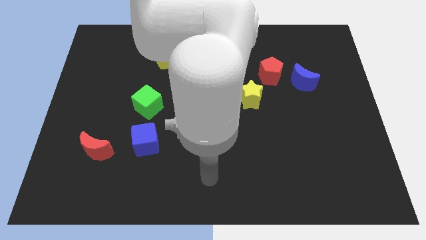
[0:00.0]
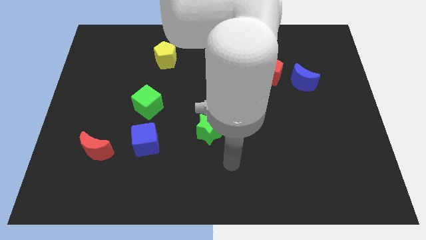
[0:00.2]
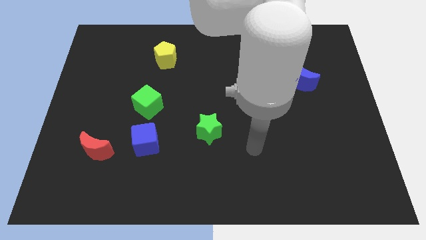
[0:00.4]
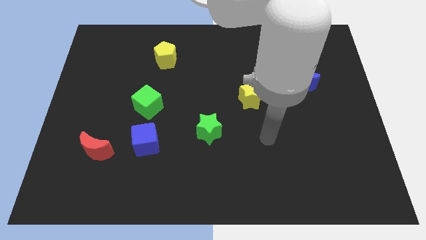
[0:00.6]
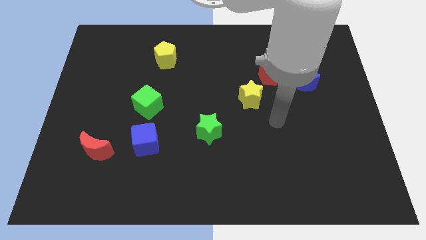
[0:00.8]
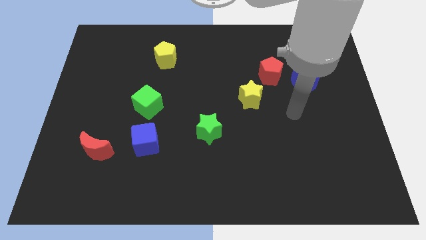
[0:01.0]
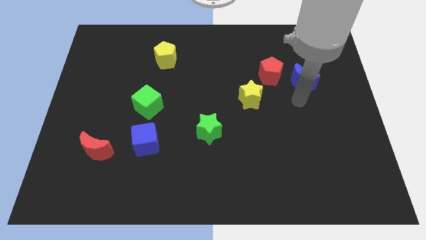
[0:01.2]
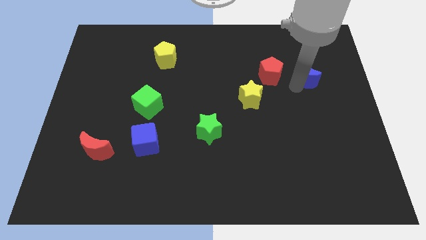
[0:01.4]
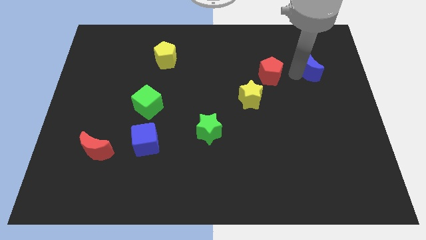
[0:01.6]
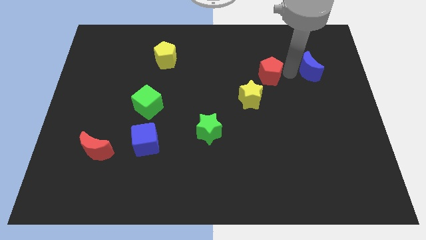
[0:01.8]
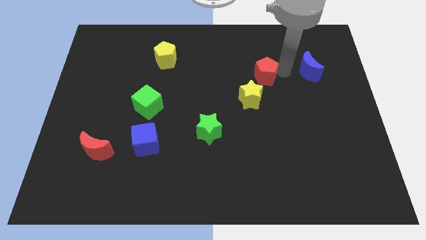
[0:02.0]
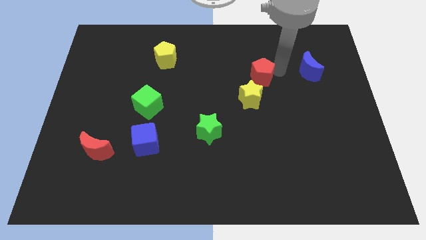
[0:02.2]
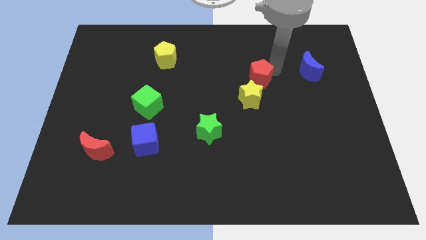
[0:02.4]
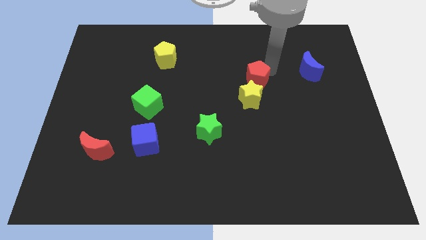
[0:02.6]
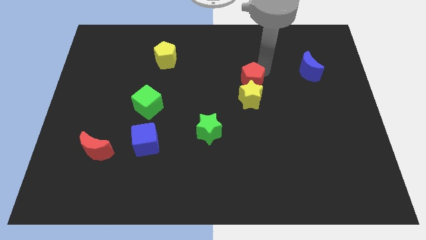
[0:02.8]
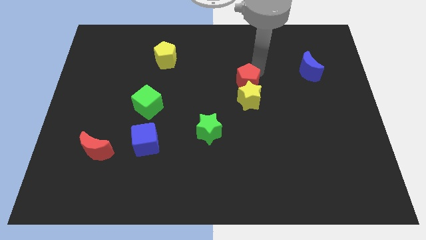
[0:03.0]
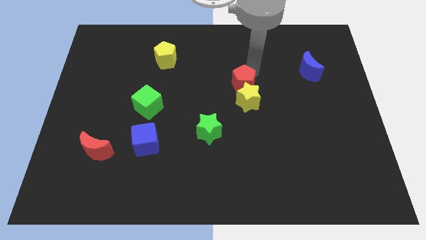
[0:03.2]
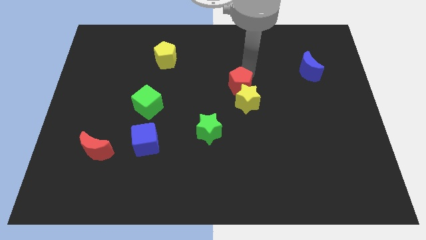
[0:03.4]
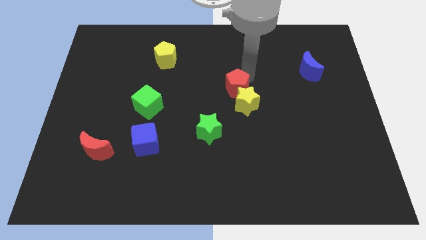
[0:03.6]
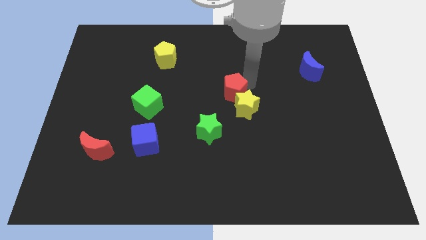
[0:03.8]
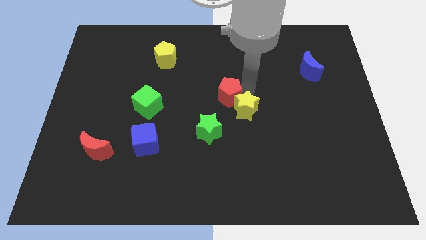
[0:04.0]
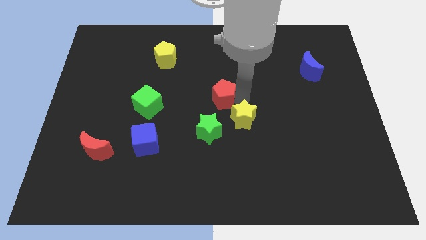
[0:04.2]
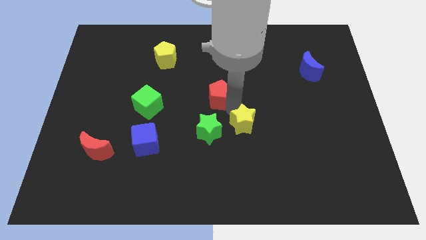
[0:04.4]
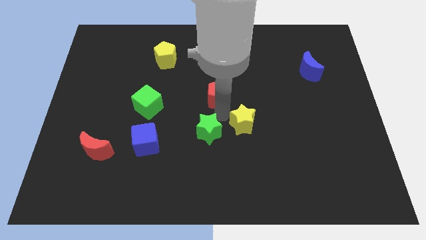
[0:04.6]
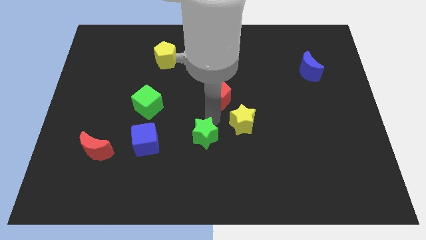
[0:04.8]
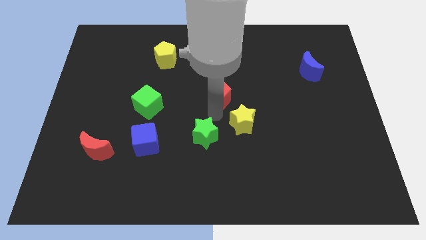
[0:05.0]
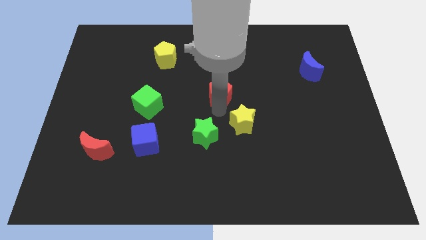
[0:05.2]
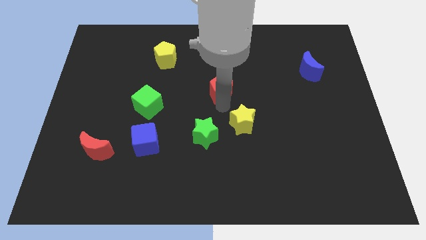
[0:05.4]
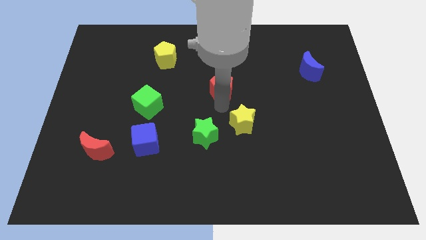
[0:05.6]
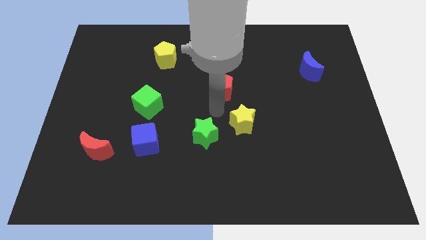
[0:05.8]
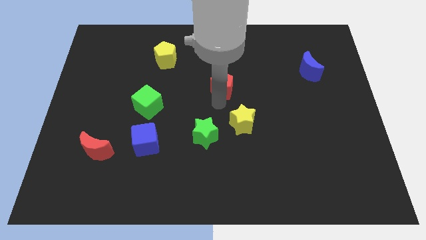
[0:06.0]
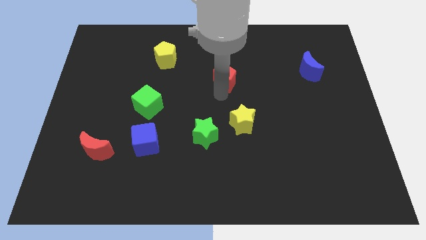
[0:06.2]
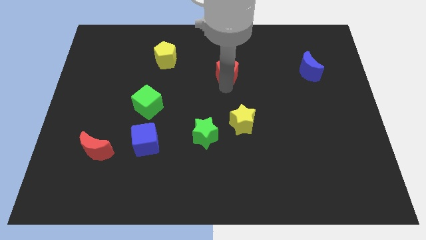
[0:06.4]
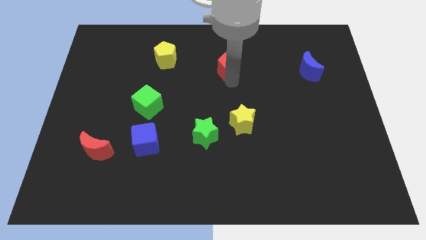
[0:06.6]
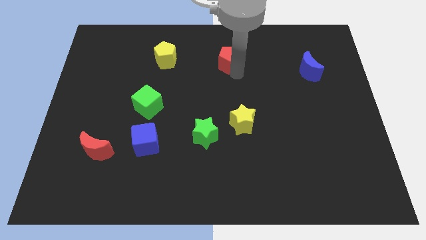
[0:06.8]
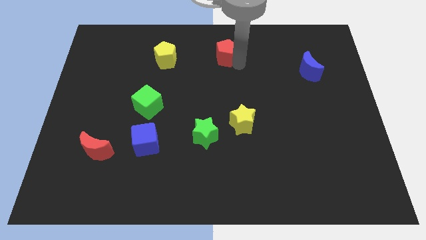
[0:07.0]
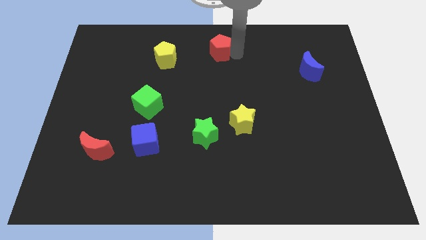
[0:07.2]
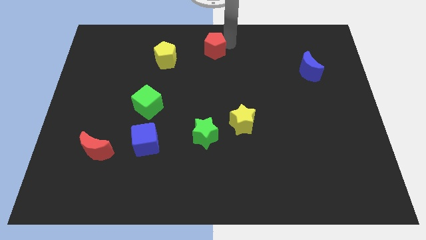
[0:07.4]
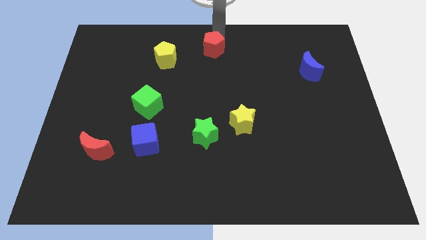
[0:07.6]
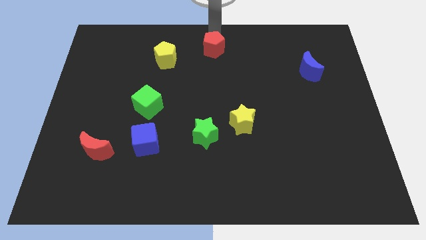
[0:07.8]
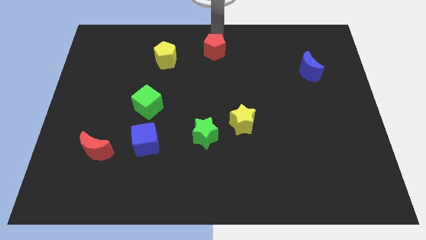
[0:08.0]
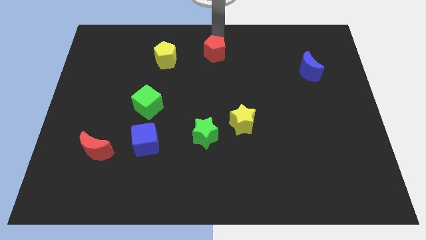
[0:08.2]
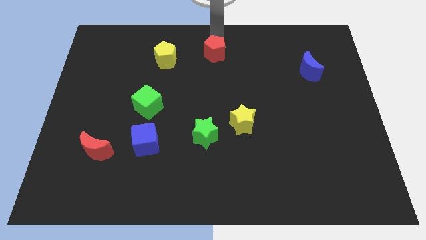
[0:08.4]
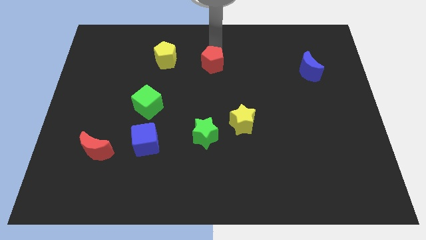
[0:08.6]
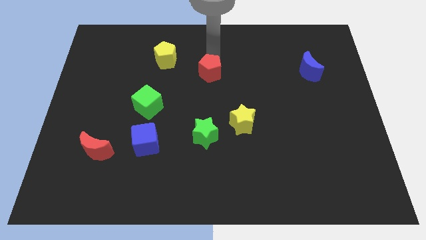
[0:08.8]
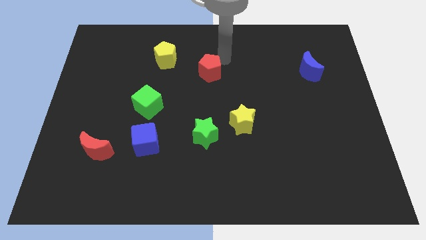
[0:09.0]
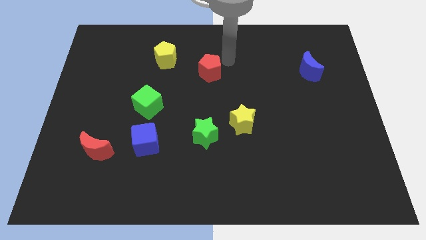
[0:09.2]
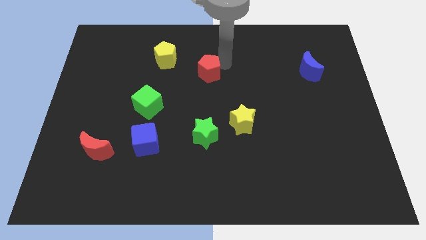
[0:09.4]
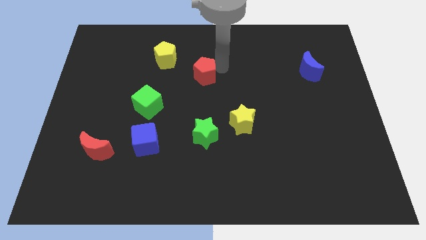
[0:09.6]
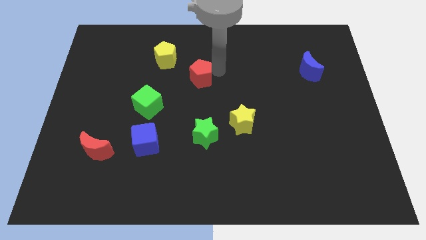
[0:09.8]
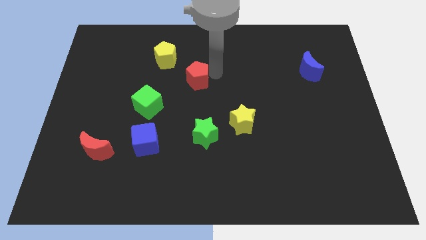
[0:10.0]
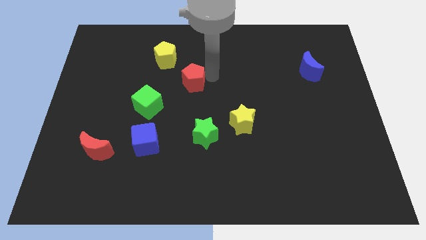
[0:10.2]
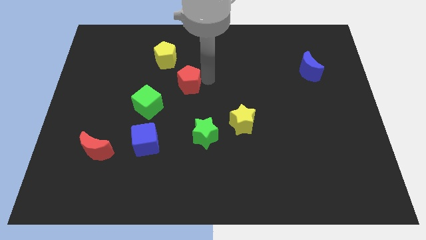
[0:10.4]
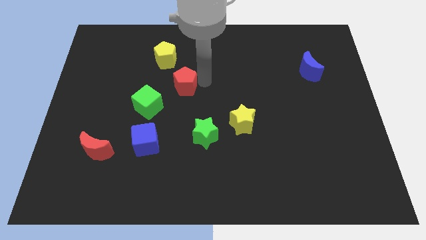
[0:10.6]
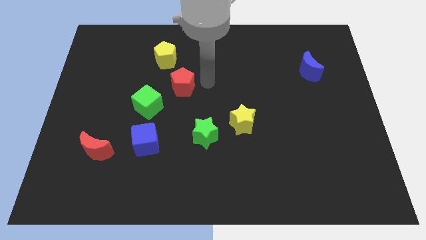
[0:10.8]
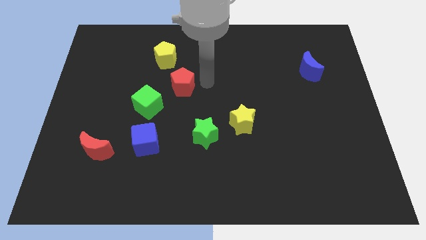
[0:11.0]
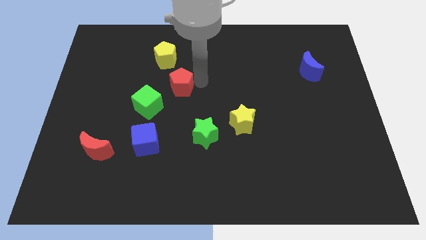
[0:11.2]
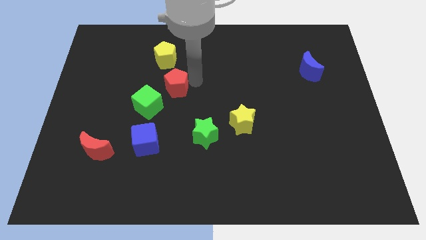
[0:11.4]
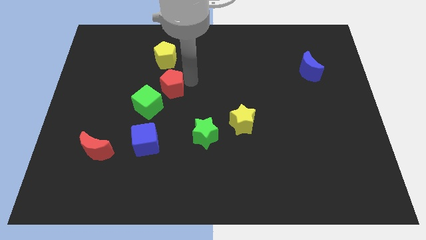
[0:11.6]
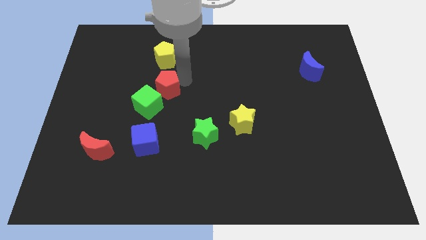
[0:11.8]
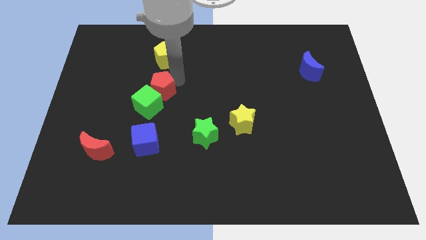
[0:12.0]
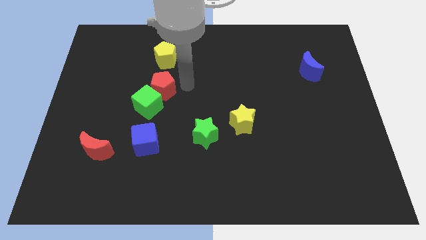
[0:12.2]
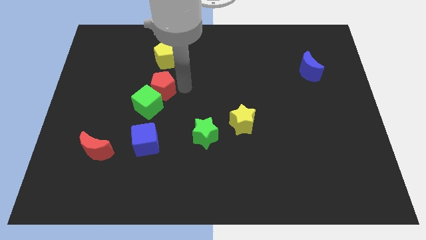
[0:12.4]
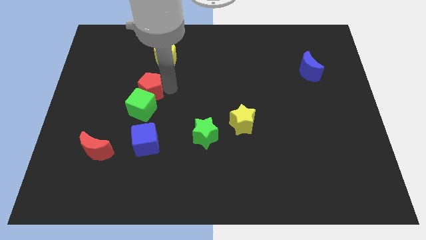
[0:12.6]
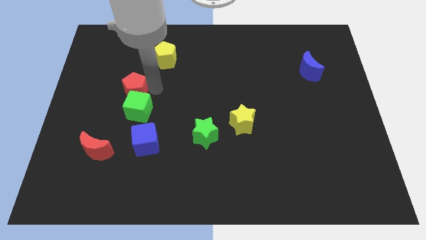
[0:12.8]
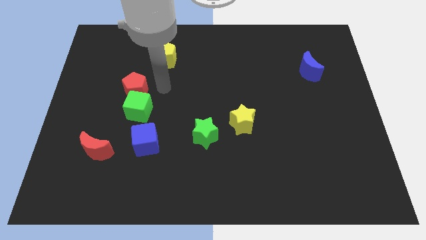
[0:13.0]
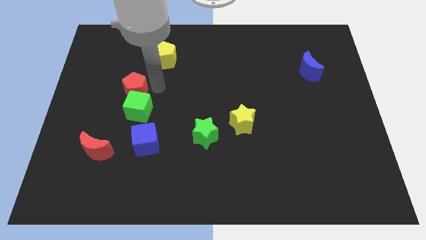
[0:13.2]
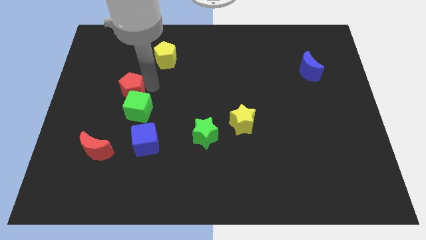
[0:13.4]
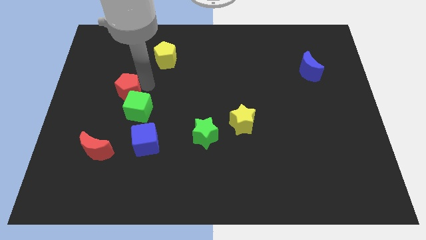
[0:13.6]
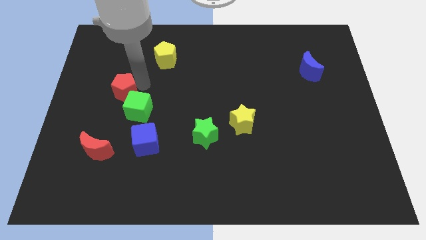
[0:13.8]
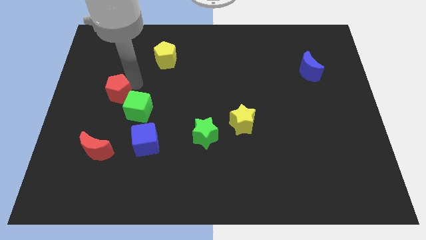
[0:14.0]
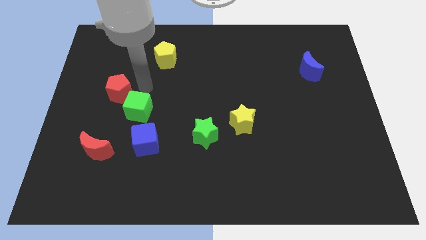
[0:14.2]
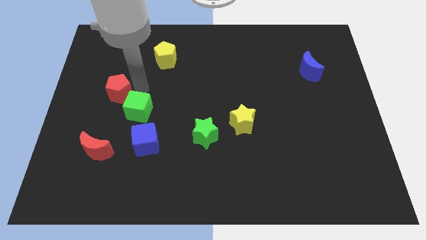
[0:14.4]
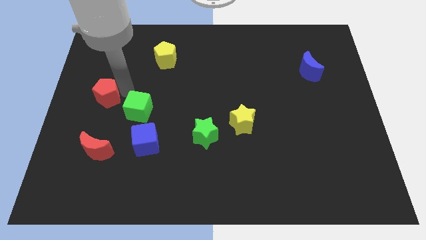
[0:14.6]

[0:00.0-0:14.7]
slide the red pentagon to the left side
